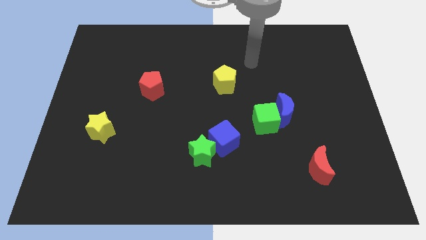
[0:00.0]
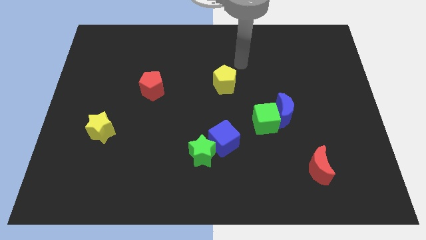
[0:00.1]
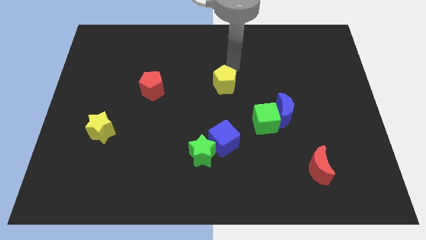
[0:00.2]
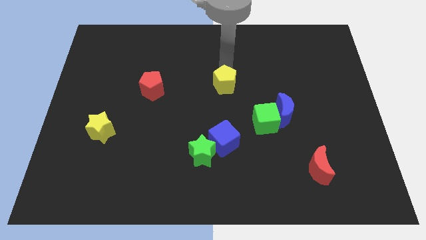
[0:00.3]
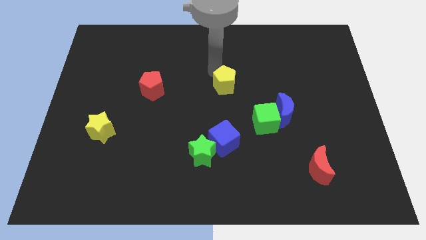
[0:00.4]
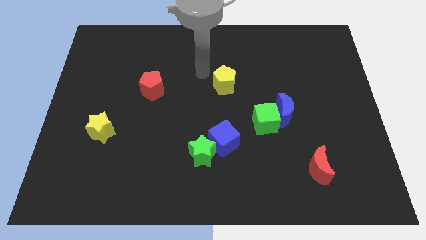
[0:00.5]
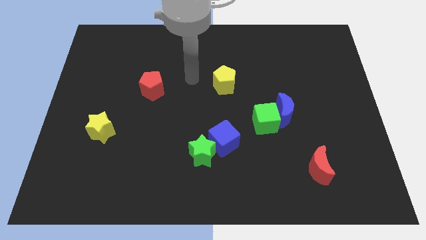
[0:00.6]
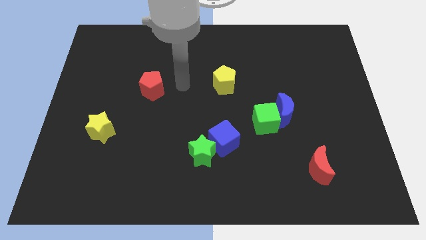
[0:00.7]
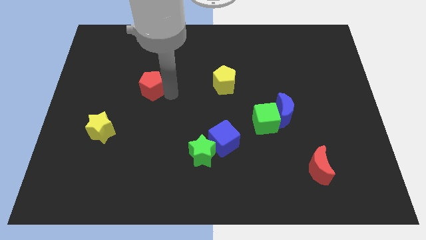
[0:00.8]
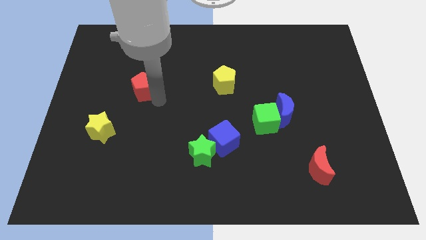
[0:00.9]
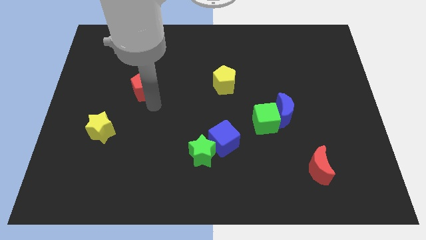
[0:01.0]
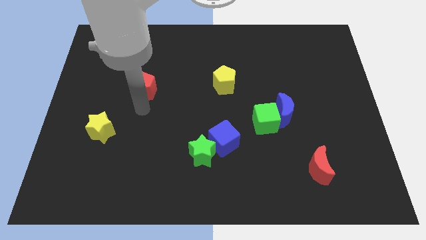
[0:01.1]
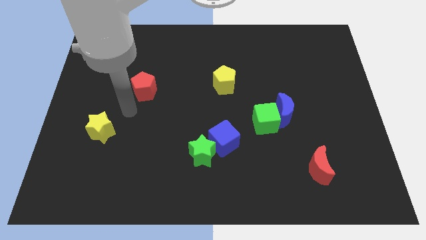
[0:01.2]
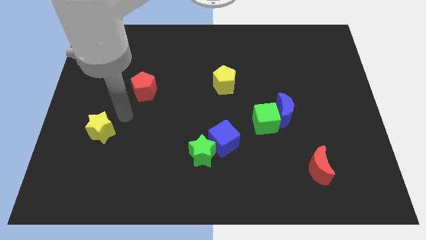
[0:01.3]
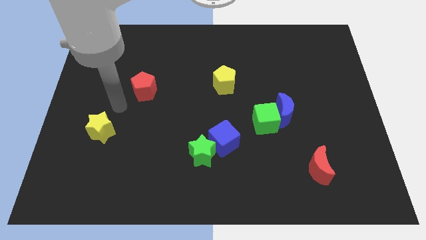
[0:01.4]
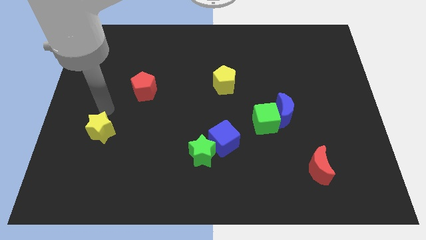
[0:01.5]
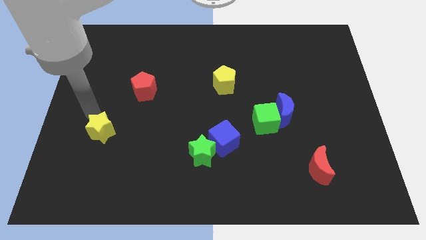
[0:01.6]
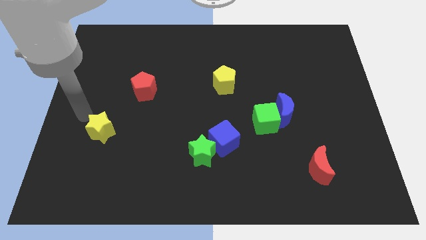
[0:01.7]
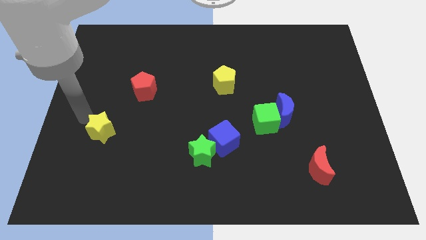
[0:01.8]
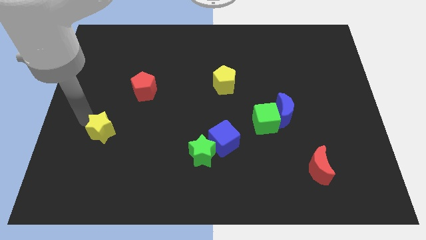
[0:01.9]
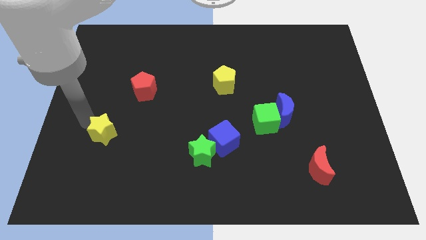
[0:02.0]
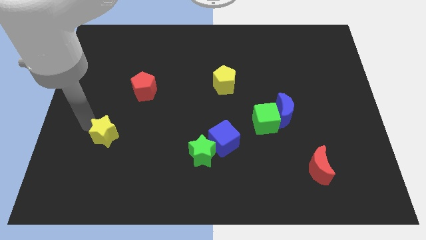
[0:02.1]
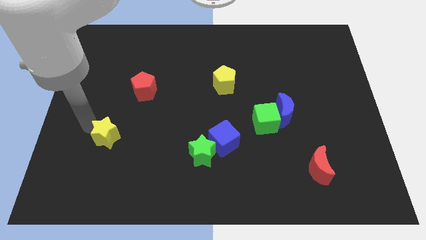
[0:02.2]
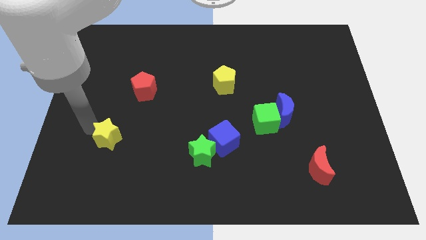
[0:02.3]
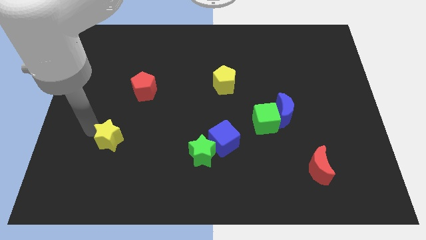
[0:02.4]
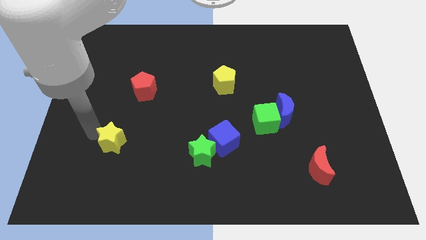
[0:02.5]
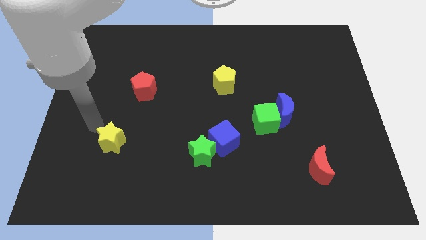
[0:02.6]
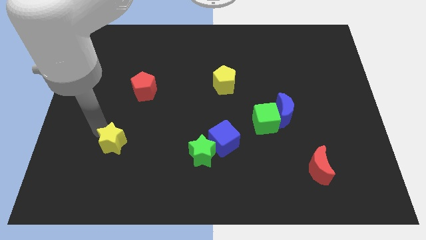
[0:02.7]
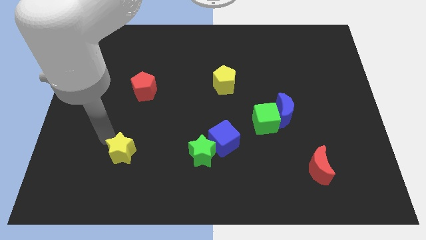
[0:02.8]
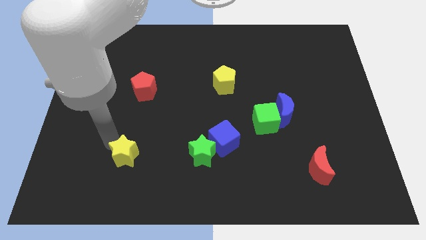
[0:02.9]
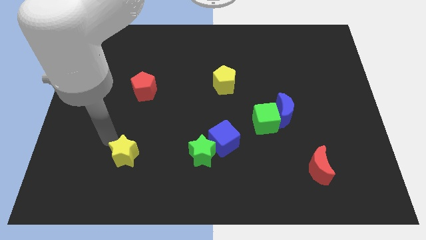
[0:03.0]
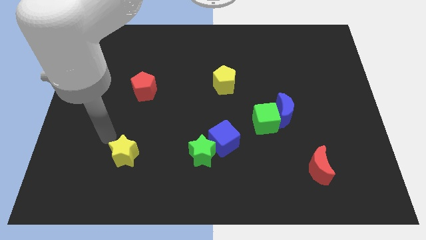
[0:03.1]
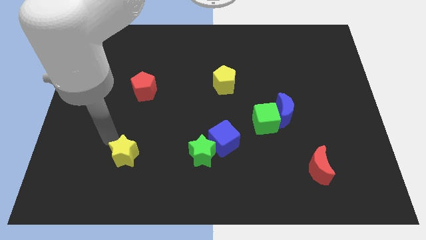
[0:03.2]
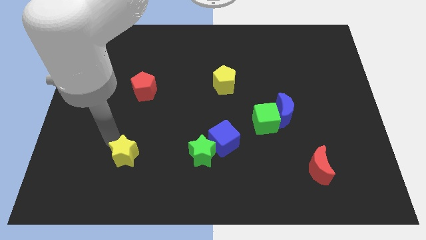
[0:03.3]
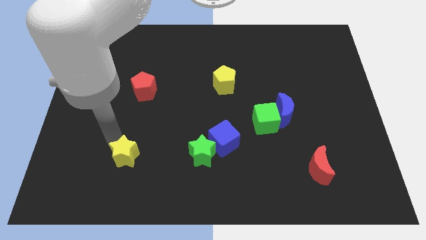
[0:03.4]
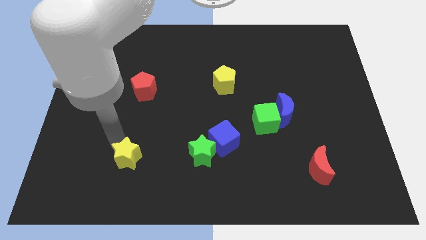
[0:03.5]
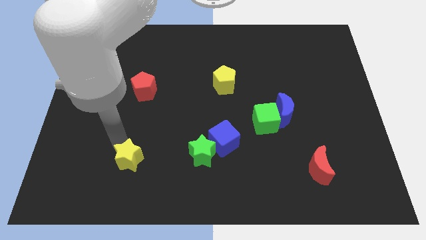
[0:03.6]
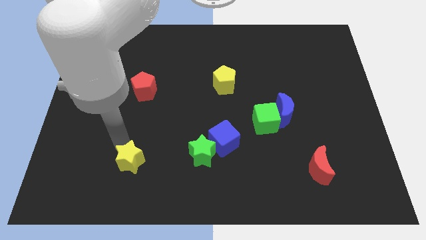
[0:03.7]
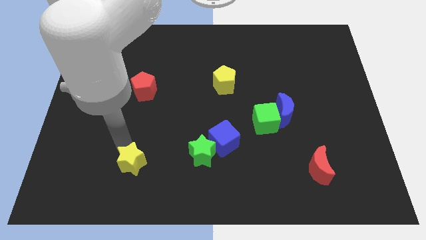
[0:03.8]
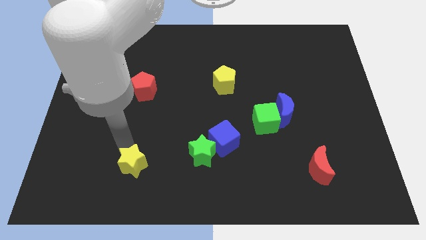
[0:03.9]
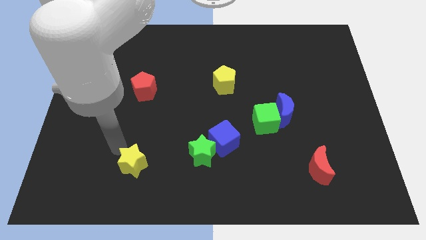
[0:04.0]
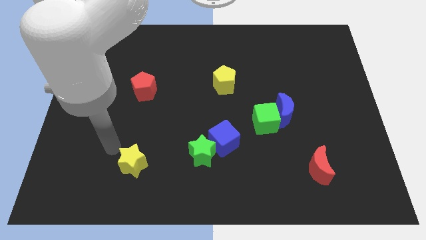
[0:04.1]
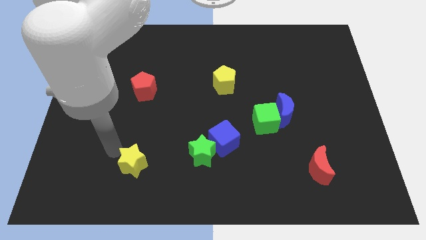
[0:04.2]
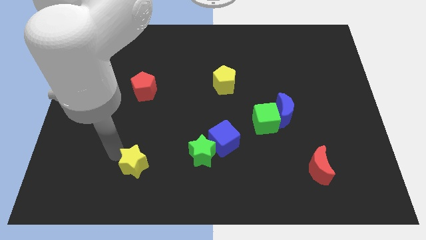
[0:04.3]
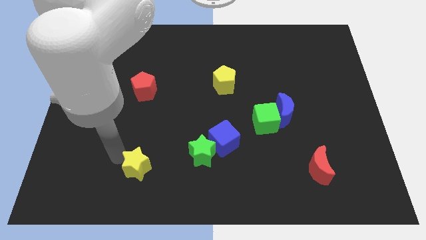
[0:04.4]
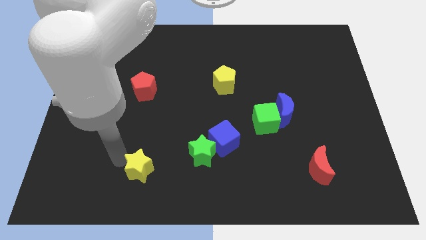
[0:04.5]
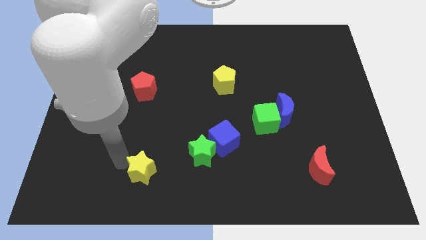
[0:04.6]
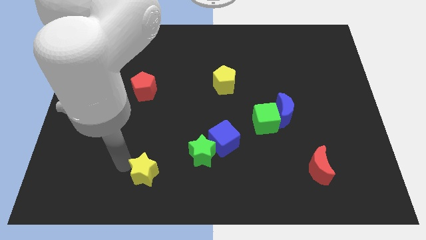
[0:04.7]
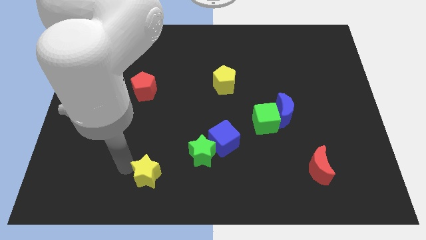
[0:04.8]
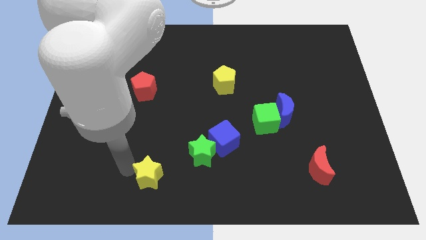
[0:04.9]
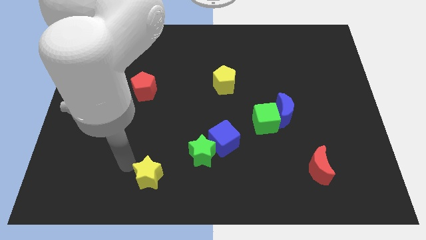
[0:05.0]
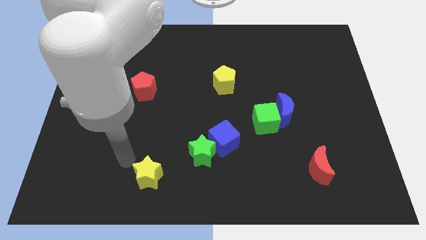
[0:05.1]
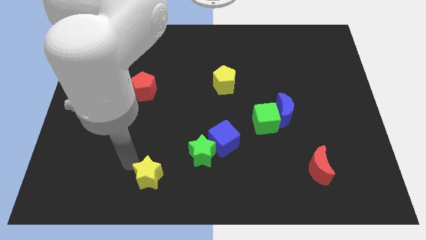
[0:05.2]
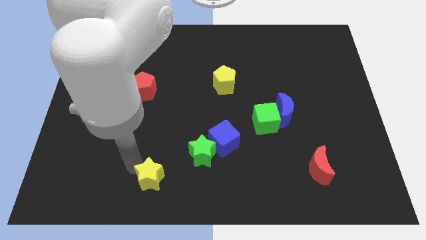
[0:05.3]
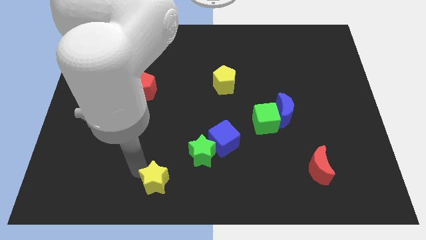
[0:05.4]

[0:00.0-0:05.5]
move the yellow star to the bottom side

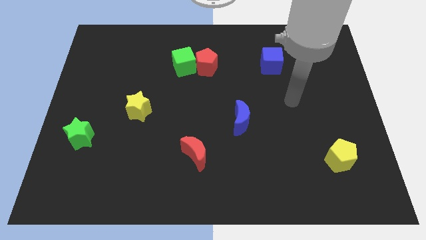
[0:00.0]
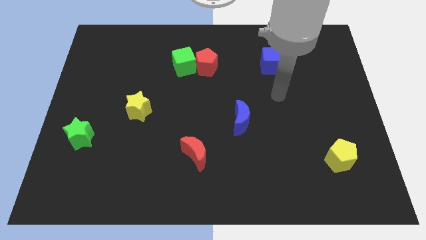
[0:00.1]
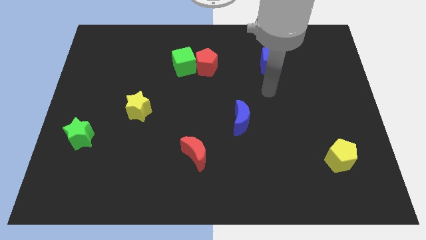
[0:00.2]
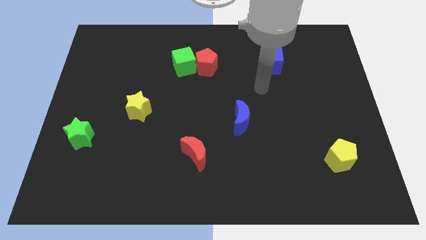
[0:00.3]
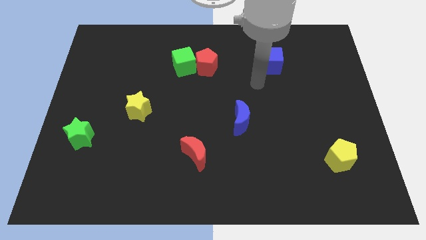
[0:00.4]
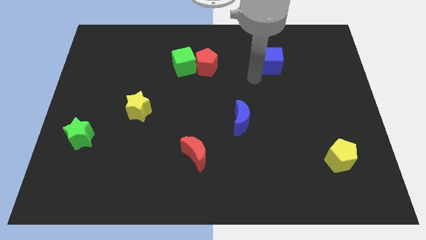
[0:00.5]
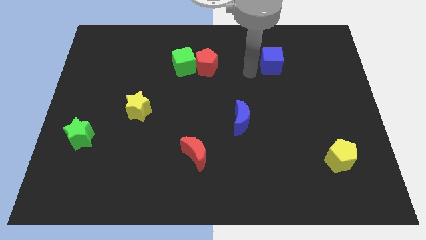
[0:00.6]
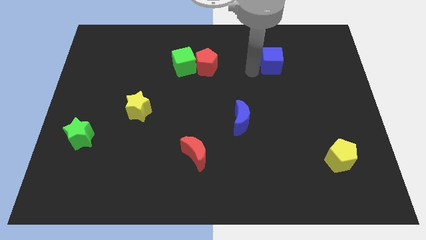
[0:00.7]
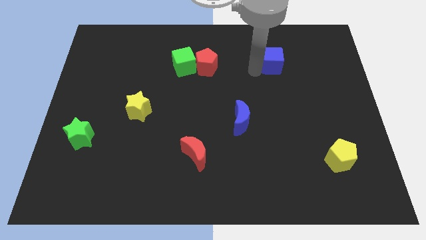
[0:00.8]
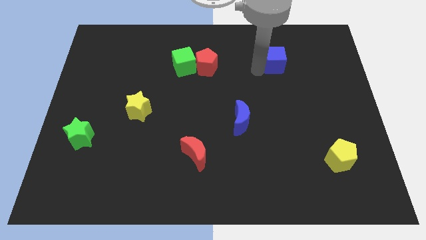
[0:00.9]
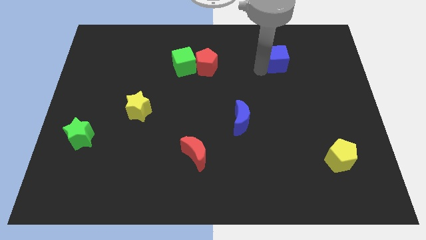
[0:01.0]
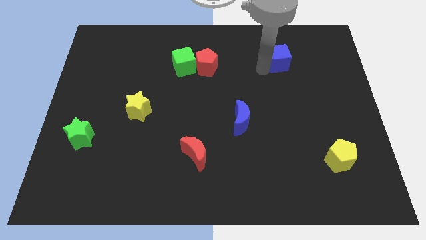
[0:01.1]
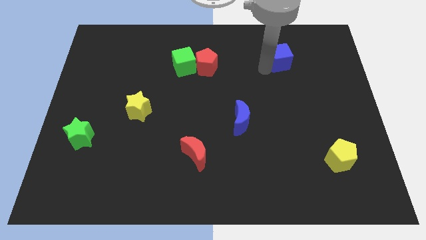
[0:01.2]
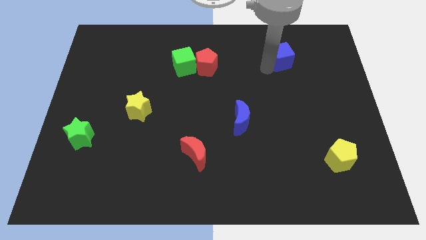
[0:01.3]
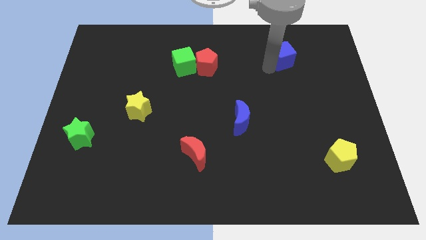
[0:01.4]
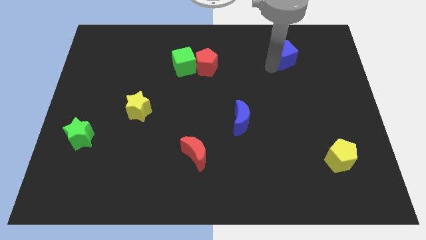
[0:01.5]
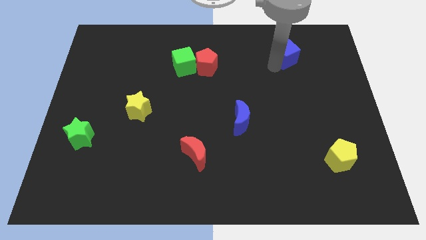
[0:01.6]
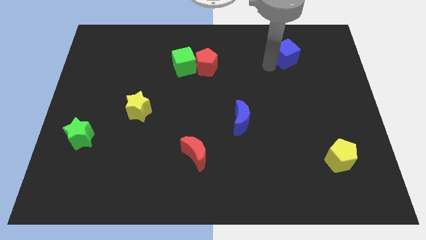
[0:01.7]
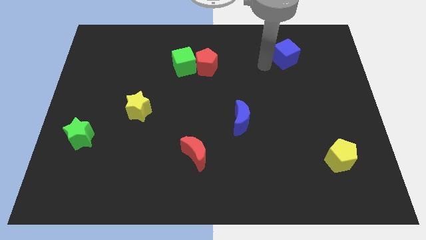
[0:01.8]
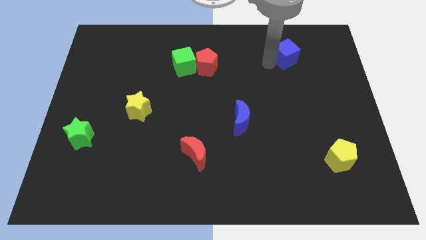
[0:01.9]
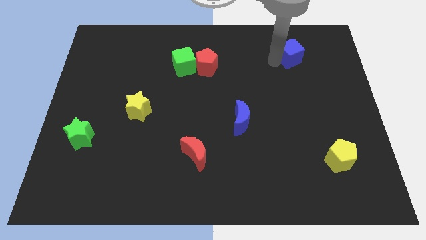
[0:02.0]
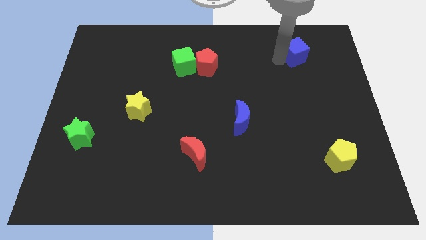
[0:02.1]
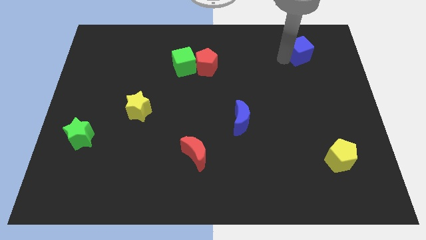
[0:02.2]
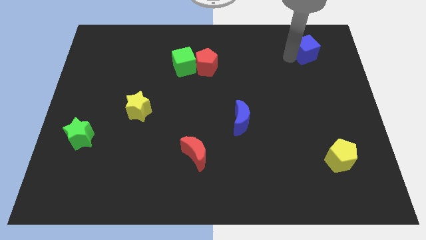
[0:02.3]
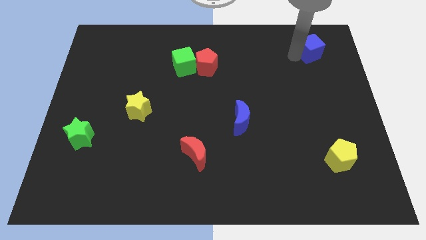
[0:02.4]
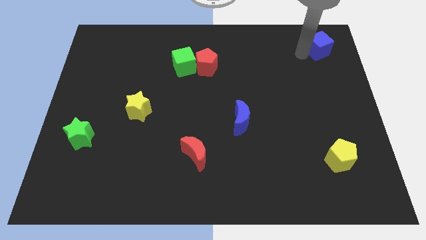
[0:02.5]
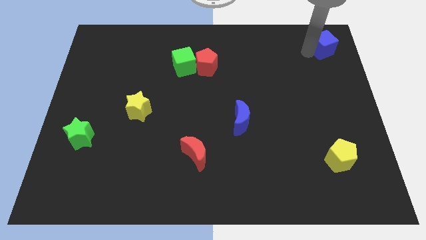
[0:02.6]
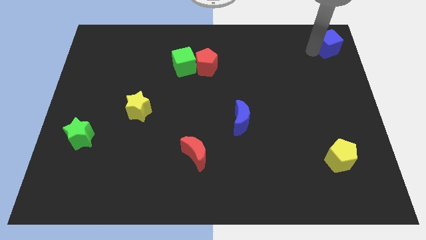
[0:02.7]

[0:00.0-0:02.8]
move the blue cube to the top right of the board
